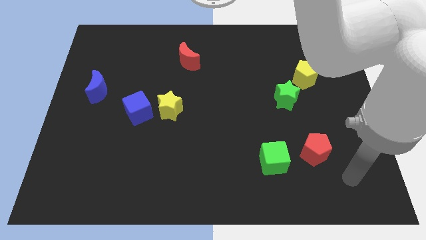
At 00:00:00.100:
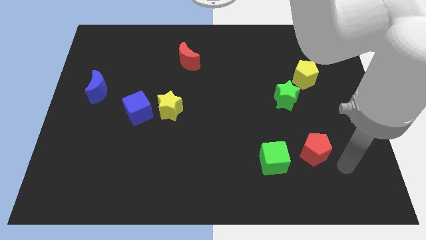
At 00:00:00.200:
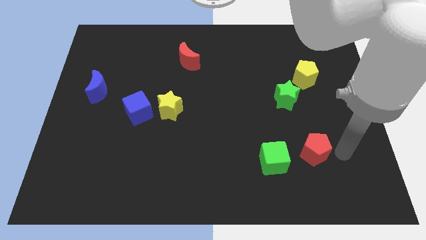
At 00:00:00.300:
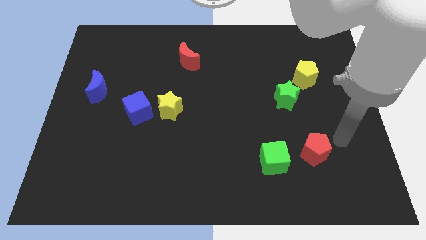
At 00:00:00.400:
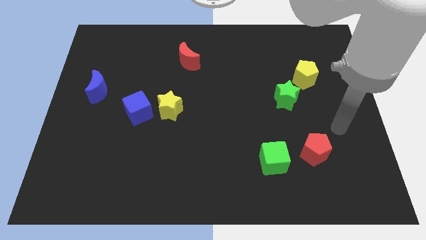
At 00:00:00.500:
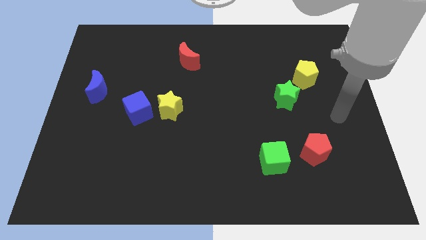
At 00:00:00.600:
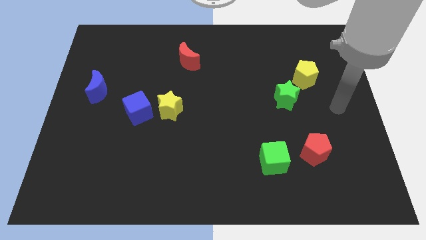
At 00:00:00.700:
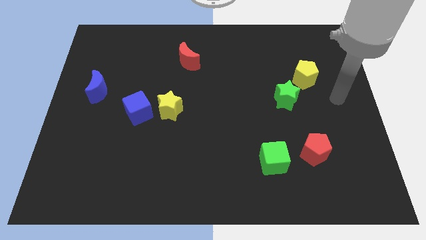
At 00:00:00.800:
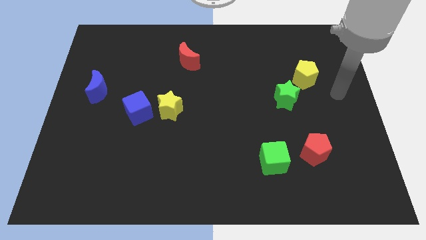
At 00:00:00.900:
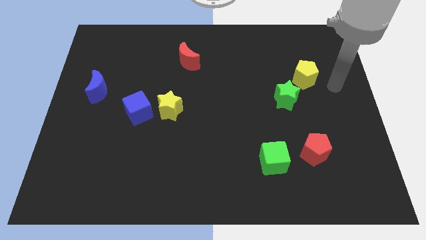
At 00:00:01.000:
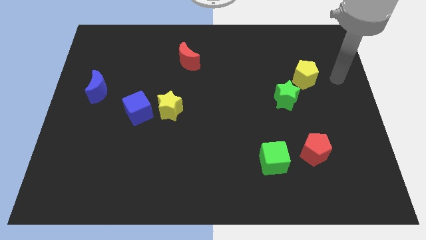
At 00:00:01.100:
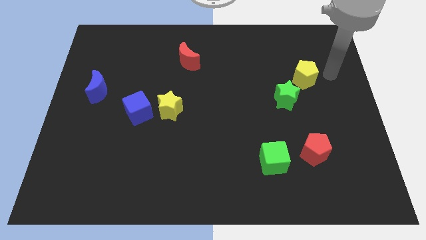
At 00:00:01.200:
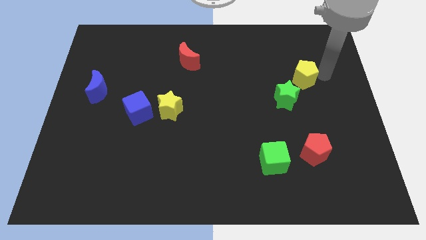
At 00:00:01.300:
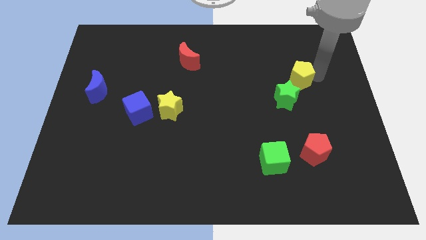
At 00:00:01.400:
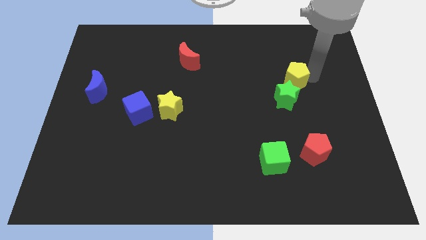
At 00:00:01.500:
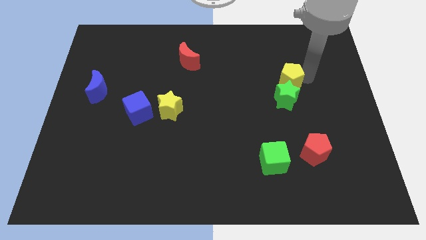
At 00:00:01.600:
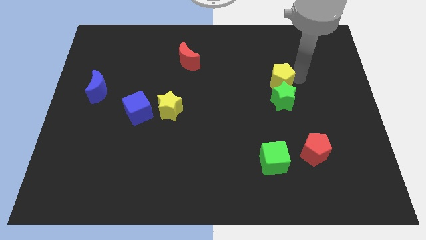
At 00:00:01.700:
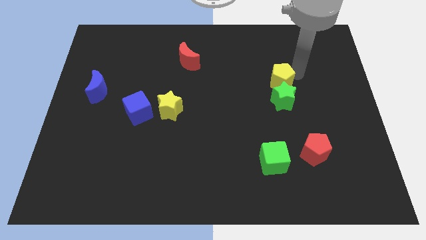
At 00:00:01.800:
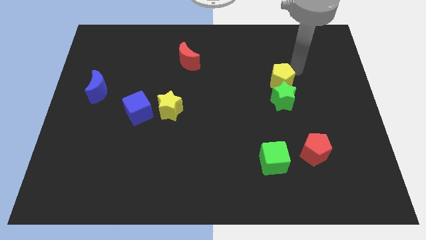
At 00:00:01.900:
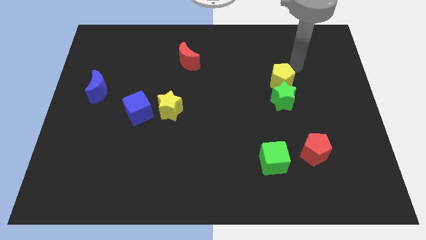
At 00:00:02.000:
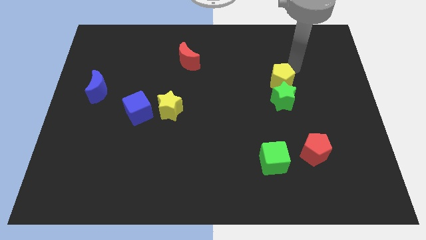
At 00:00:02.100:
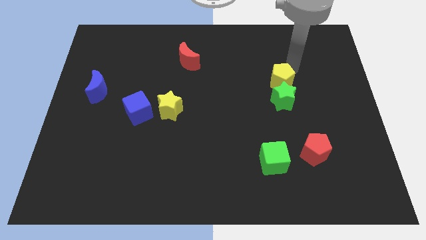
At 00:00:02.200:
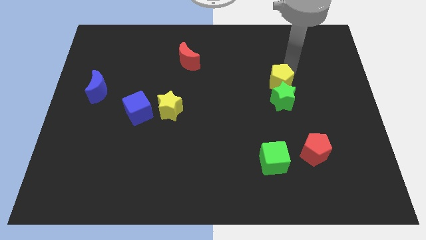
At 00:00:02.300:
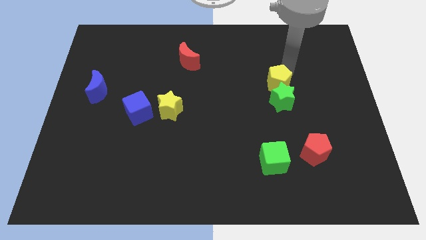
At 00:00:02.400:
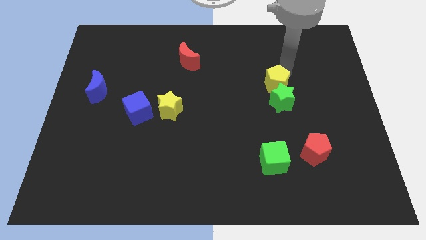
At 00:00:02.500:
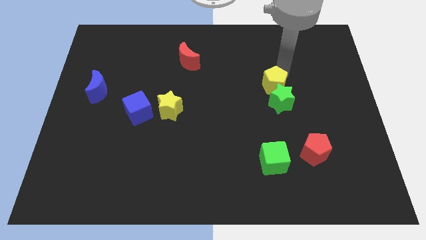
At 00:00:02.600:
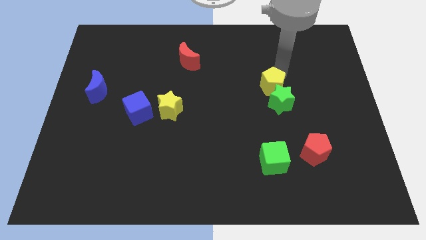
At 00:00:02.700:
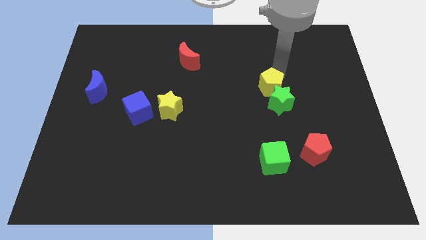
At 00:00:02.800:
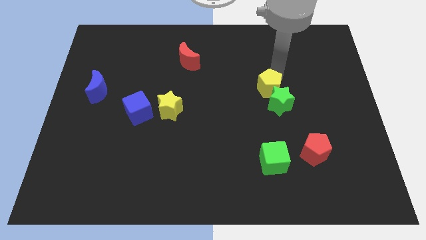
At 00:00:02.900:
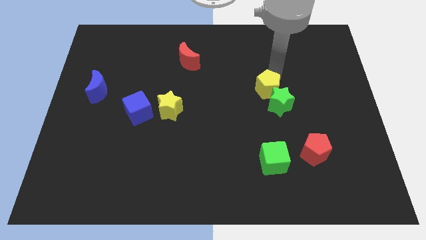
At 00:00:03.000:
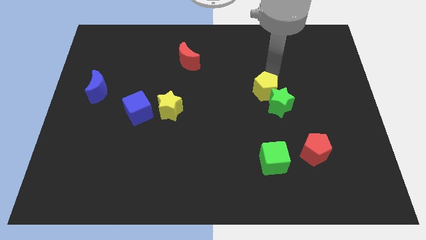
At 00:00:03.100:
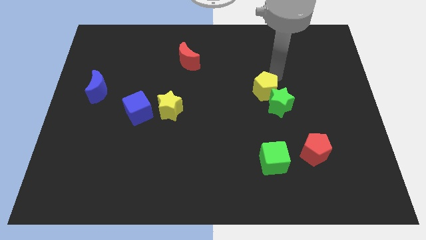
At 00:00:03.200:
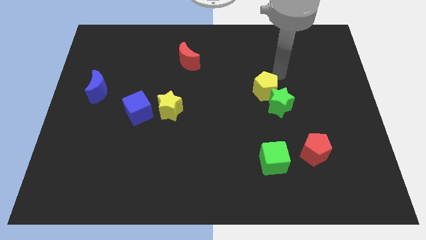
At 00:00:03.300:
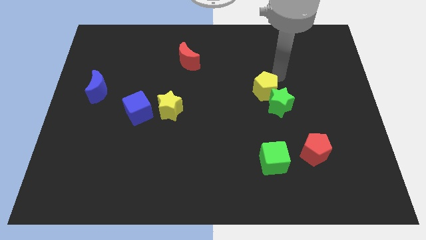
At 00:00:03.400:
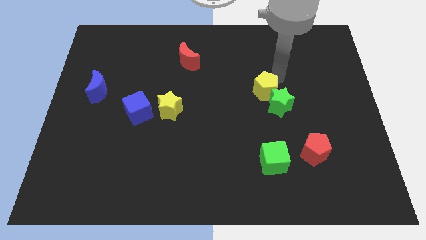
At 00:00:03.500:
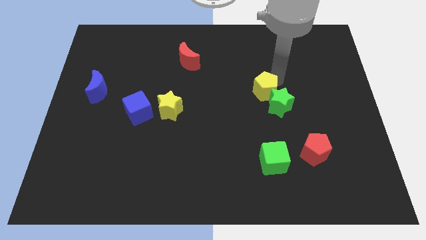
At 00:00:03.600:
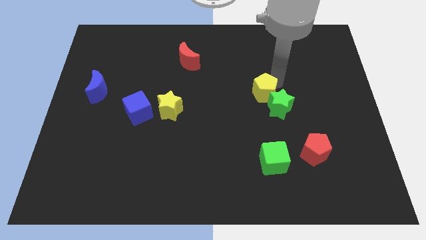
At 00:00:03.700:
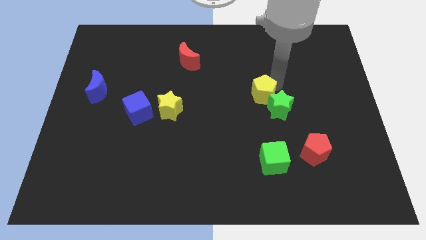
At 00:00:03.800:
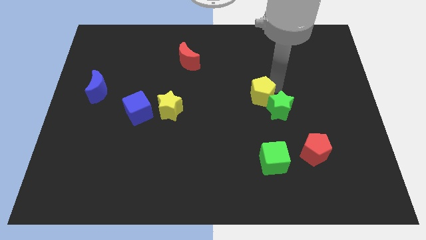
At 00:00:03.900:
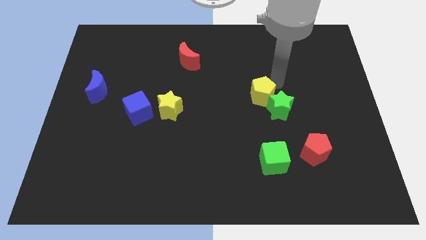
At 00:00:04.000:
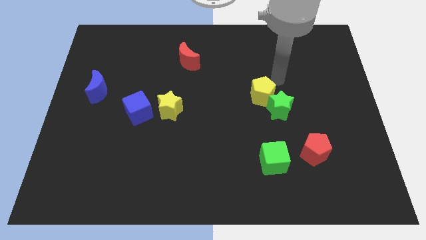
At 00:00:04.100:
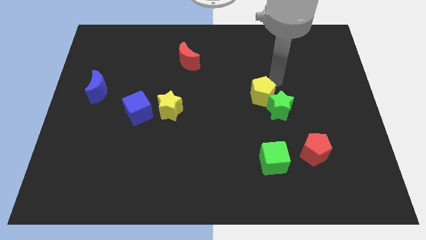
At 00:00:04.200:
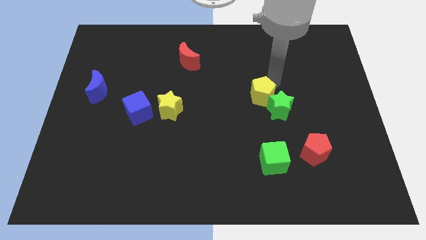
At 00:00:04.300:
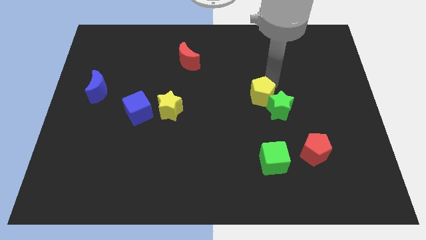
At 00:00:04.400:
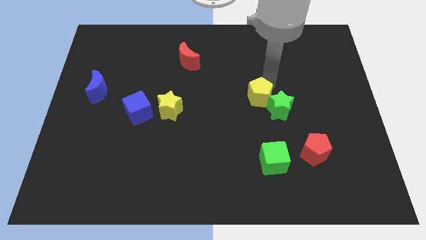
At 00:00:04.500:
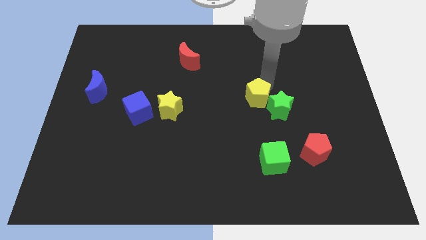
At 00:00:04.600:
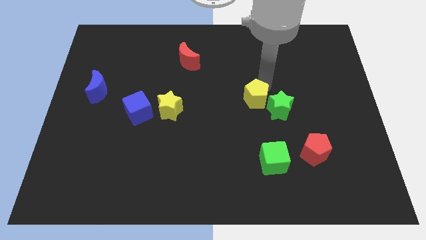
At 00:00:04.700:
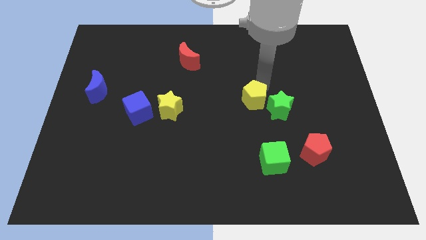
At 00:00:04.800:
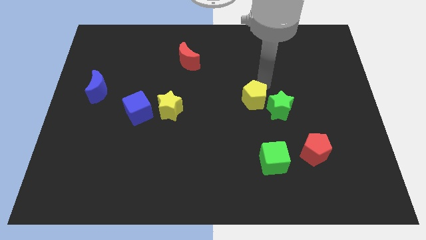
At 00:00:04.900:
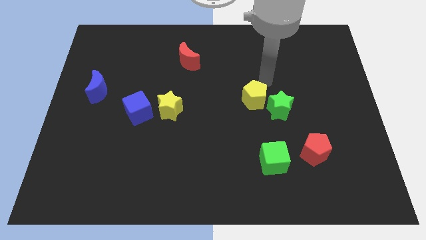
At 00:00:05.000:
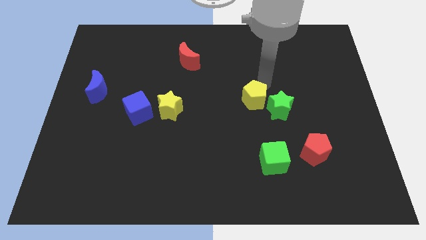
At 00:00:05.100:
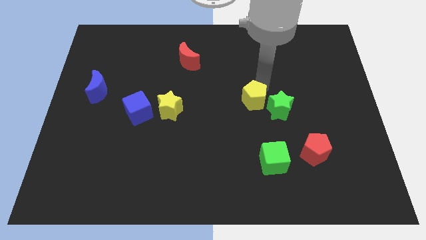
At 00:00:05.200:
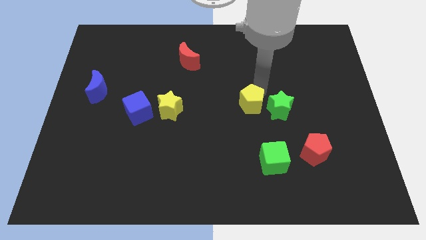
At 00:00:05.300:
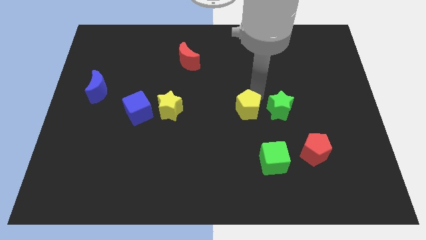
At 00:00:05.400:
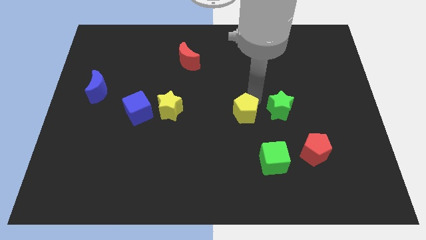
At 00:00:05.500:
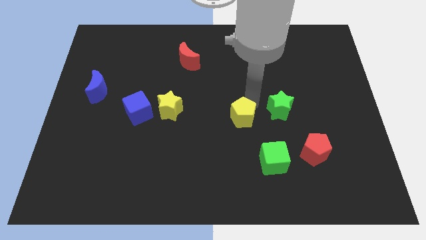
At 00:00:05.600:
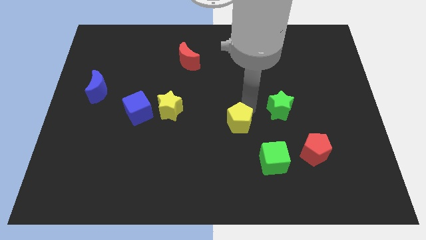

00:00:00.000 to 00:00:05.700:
slide the yellow pentagon downwards and left

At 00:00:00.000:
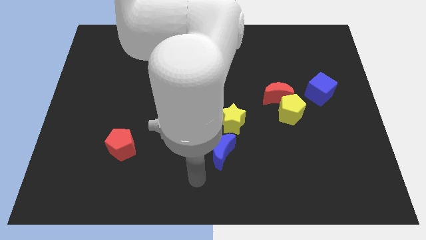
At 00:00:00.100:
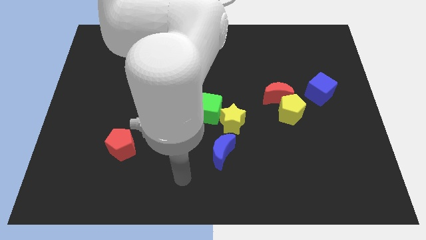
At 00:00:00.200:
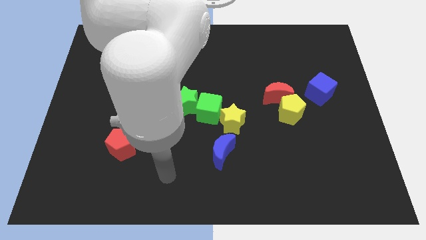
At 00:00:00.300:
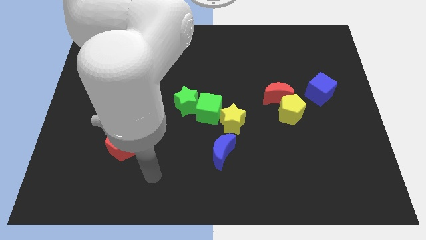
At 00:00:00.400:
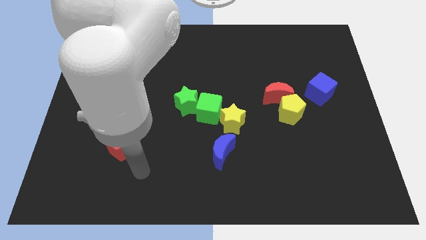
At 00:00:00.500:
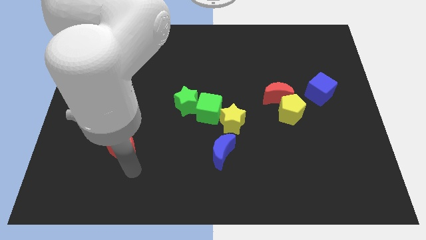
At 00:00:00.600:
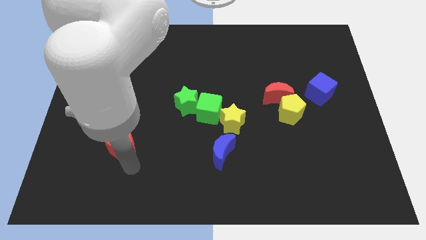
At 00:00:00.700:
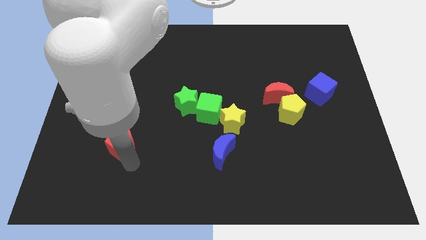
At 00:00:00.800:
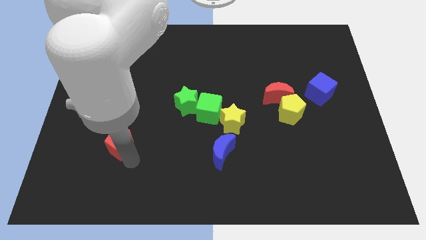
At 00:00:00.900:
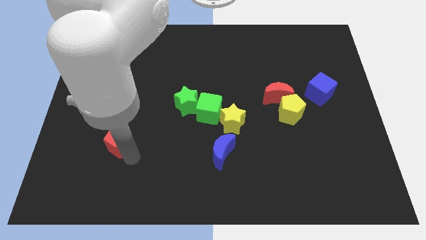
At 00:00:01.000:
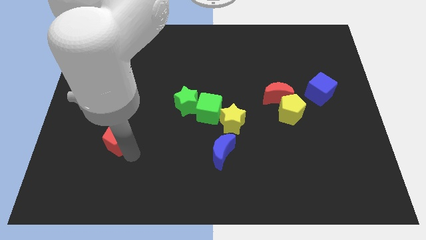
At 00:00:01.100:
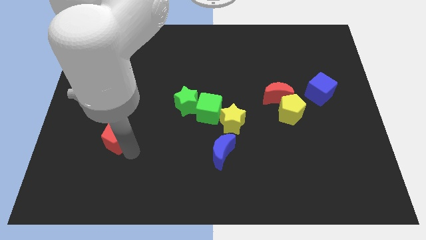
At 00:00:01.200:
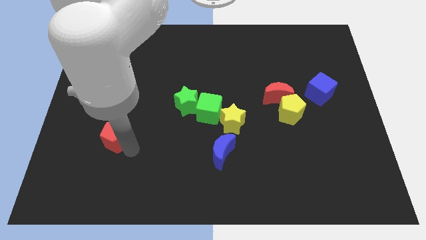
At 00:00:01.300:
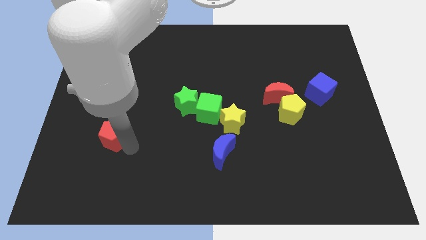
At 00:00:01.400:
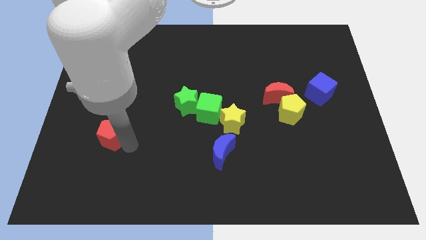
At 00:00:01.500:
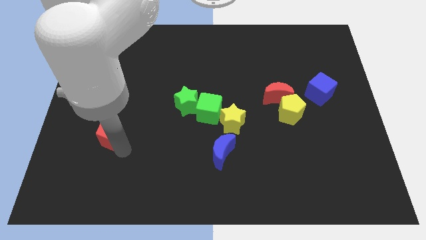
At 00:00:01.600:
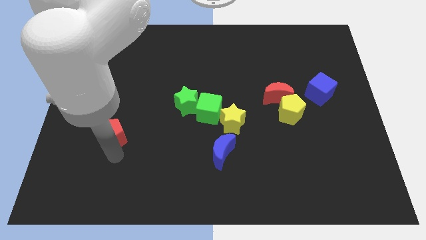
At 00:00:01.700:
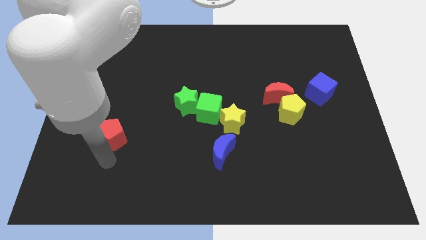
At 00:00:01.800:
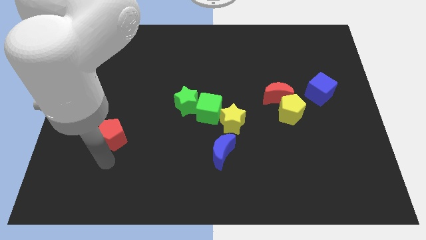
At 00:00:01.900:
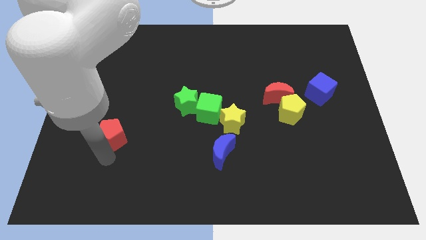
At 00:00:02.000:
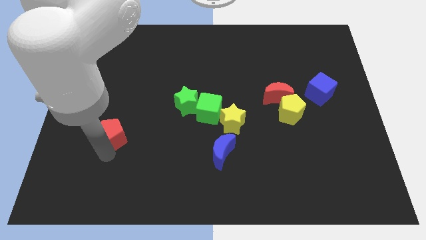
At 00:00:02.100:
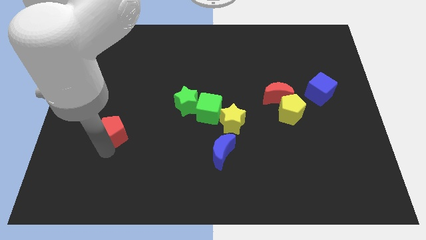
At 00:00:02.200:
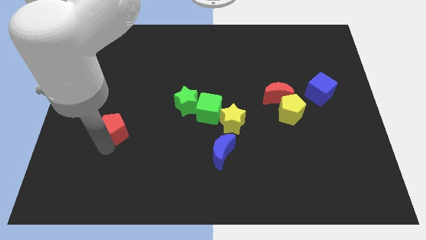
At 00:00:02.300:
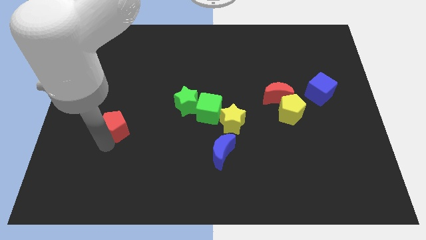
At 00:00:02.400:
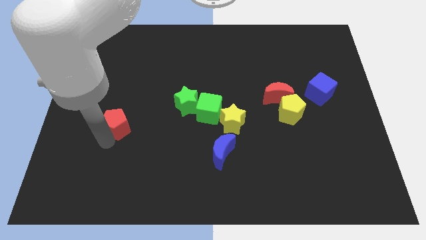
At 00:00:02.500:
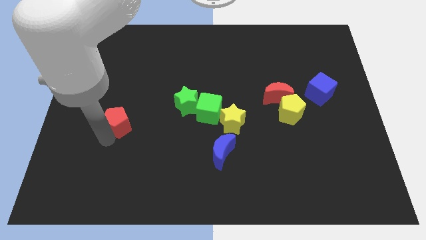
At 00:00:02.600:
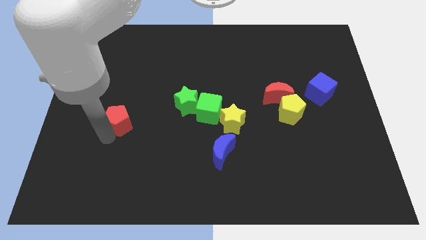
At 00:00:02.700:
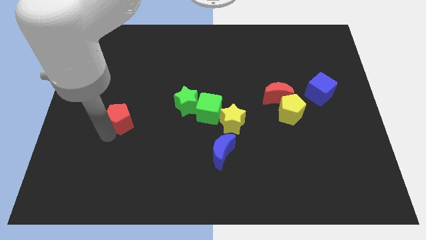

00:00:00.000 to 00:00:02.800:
slide the red pentagon a bit up
